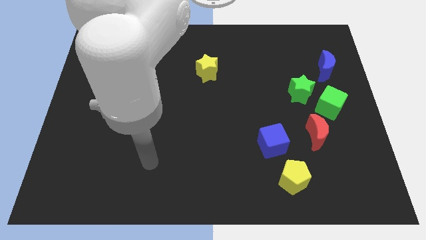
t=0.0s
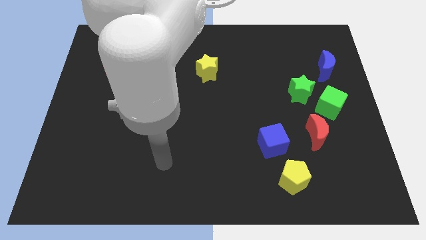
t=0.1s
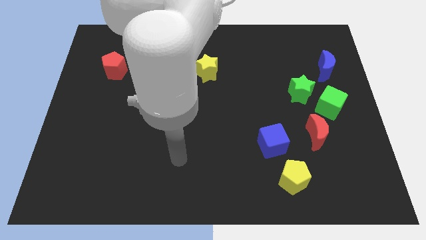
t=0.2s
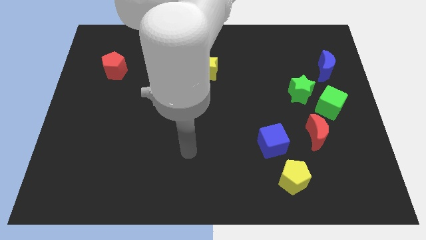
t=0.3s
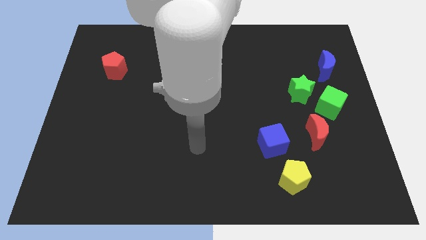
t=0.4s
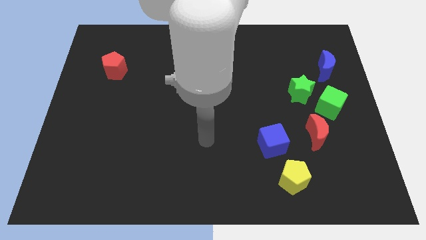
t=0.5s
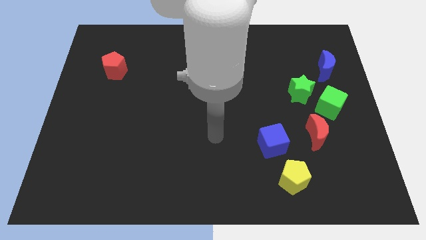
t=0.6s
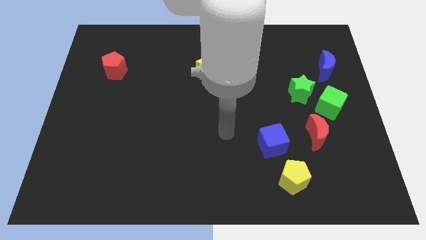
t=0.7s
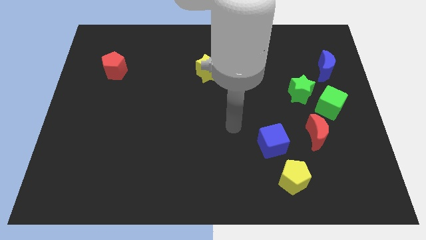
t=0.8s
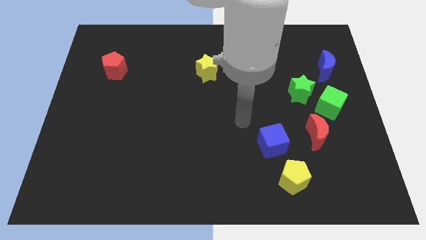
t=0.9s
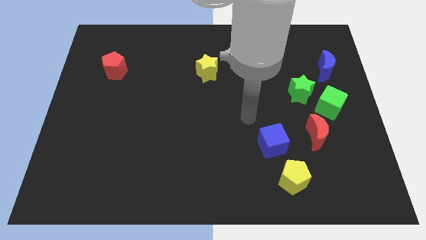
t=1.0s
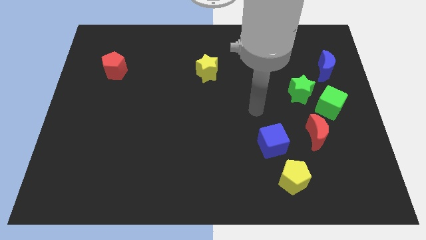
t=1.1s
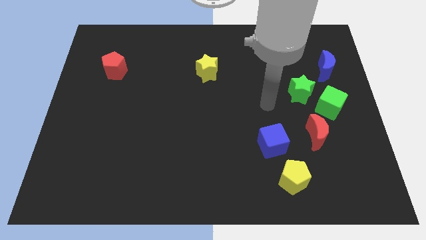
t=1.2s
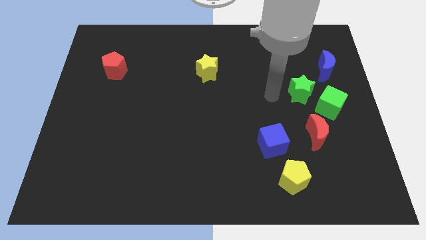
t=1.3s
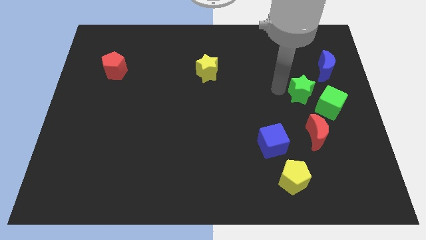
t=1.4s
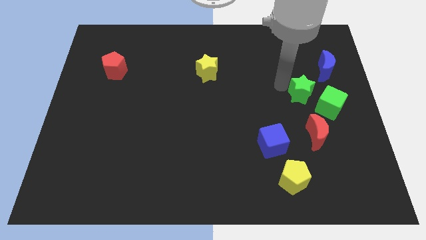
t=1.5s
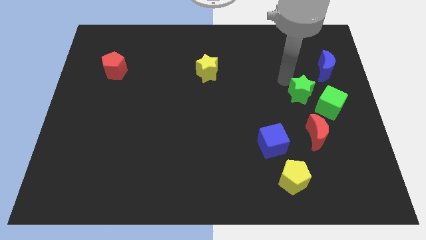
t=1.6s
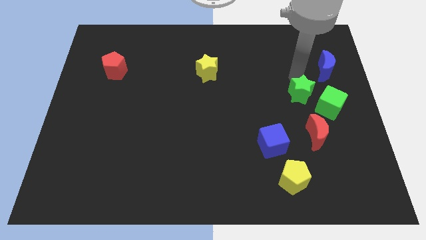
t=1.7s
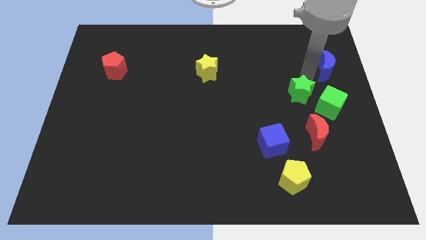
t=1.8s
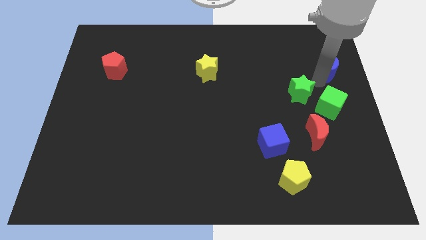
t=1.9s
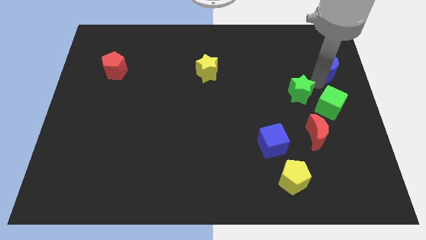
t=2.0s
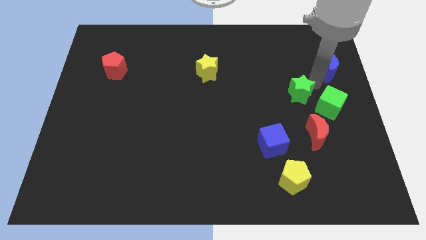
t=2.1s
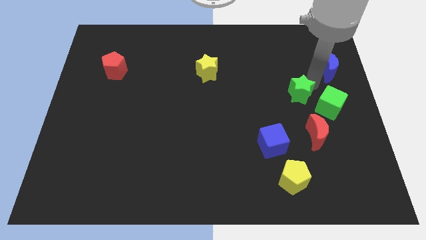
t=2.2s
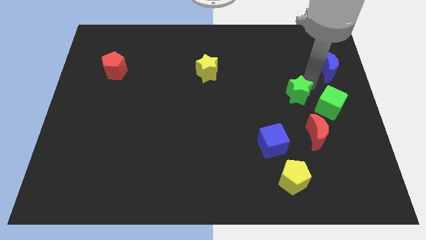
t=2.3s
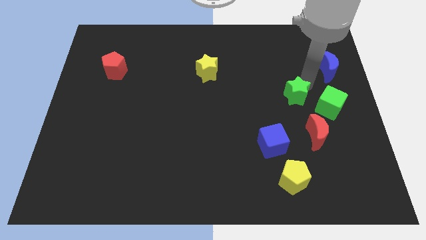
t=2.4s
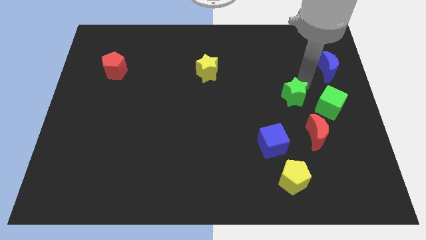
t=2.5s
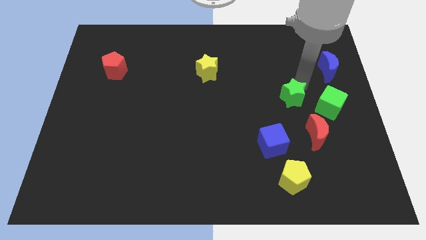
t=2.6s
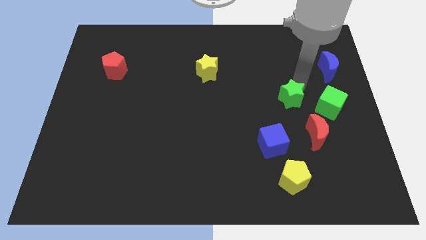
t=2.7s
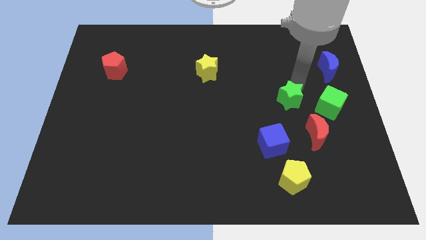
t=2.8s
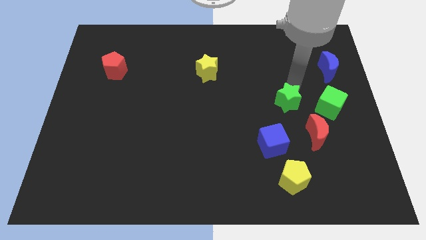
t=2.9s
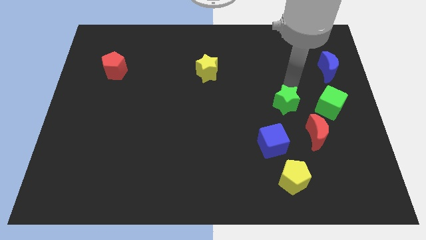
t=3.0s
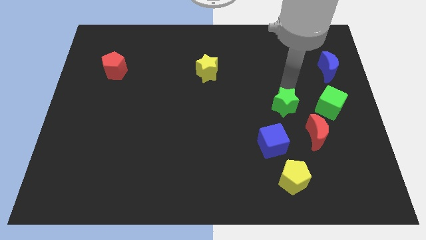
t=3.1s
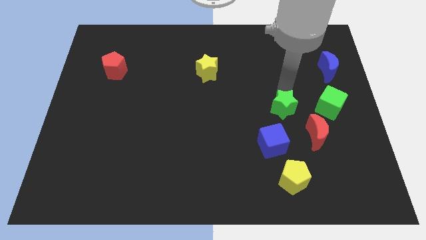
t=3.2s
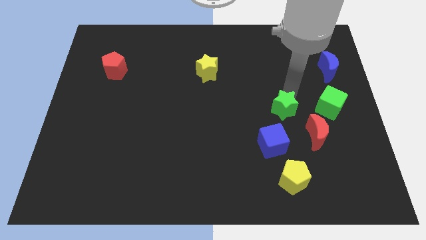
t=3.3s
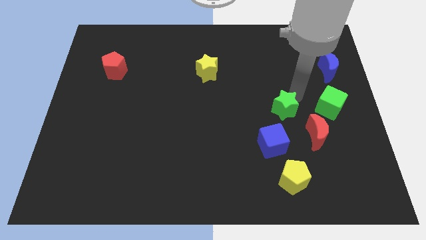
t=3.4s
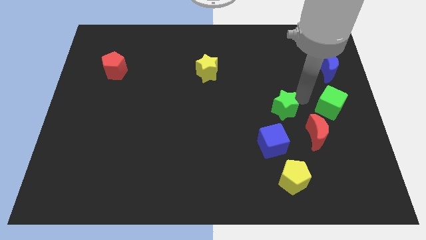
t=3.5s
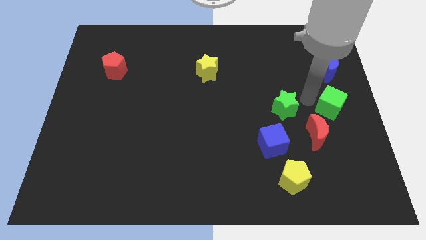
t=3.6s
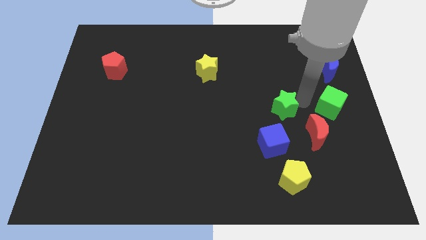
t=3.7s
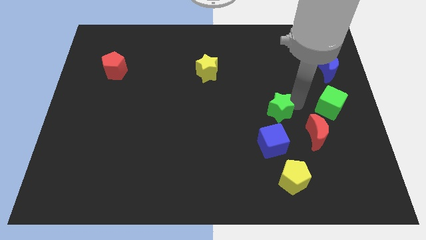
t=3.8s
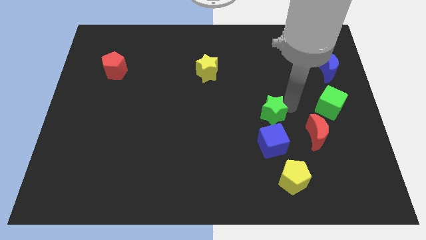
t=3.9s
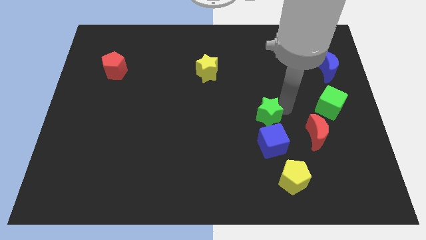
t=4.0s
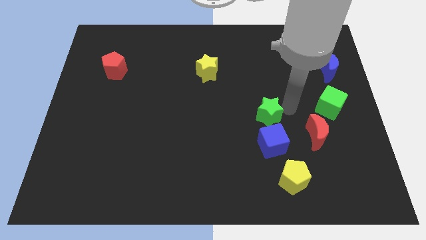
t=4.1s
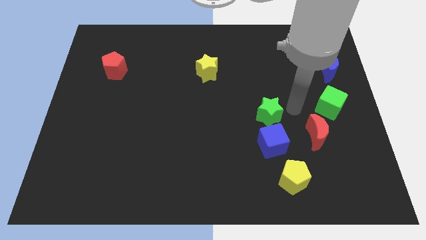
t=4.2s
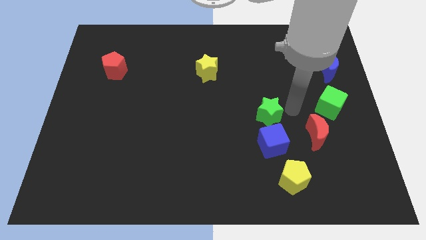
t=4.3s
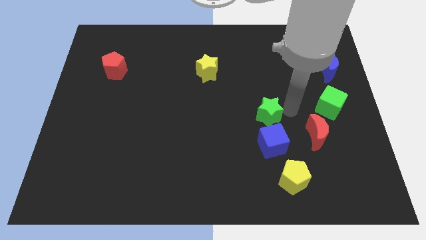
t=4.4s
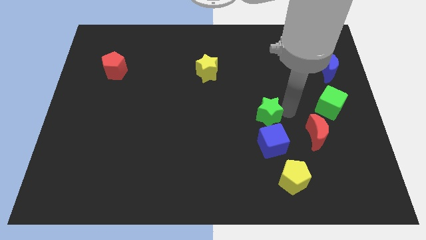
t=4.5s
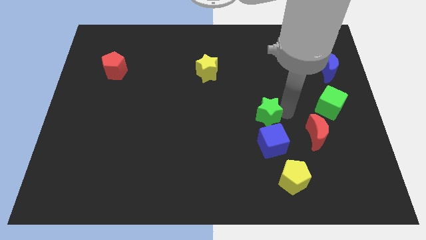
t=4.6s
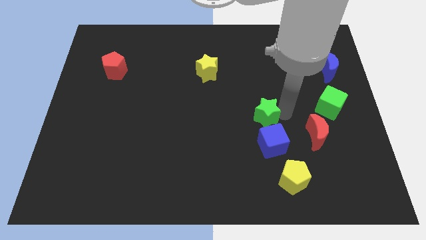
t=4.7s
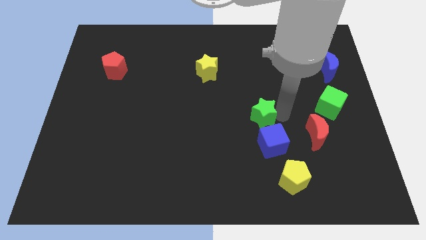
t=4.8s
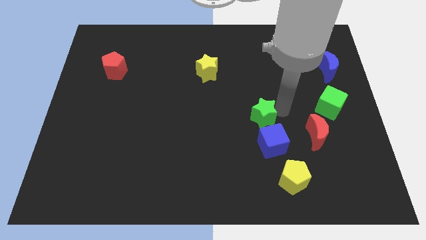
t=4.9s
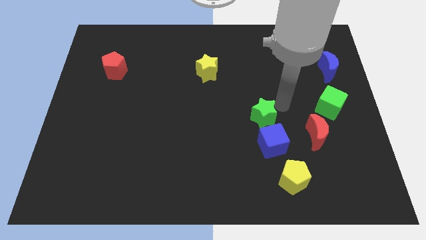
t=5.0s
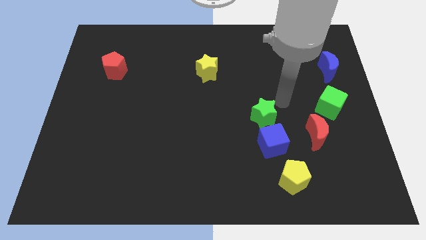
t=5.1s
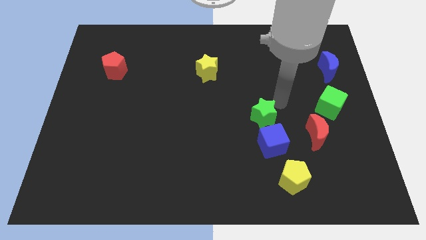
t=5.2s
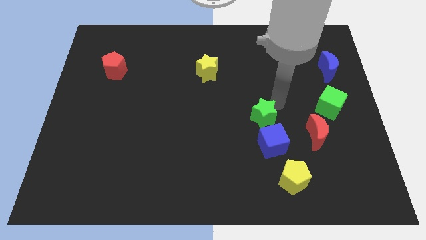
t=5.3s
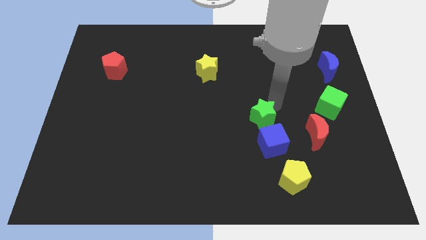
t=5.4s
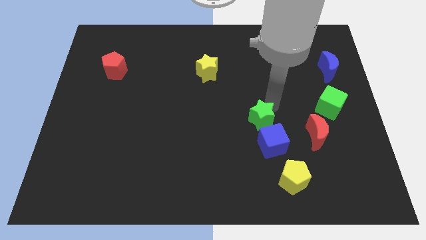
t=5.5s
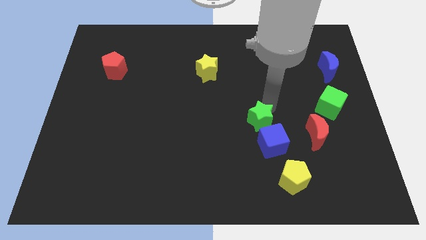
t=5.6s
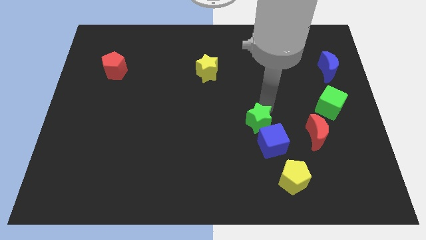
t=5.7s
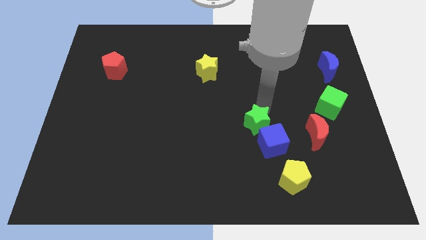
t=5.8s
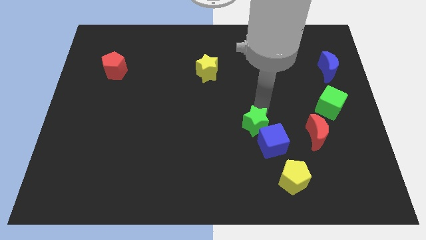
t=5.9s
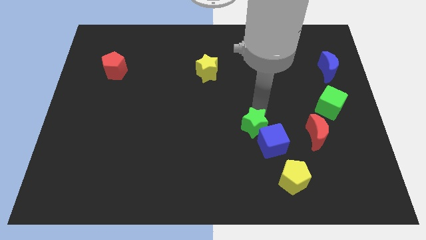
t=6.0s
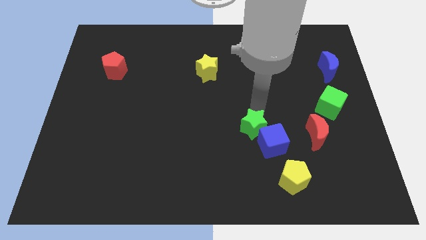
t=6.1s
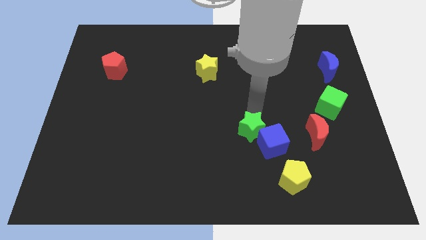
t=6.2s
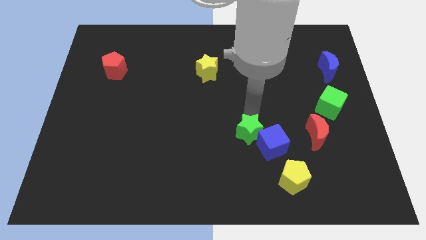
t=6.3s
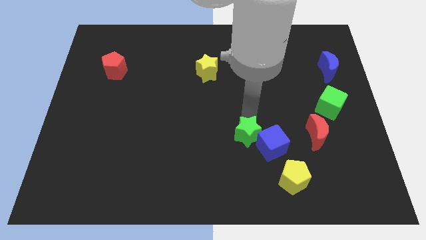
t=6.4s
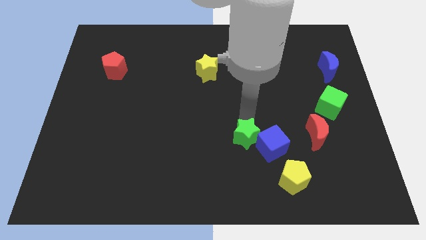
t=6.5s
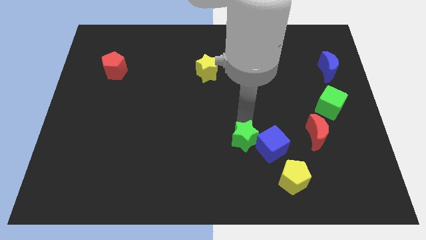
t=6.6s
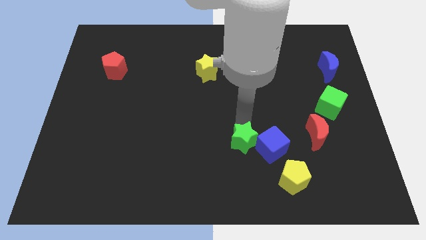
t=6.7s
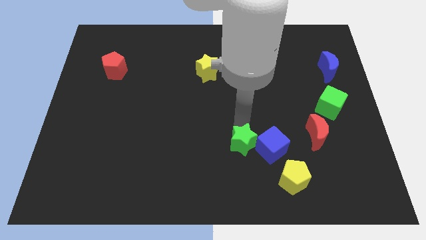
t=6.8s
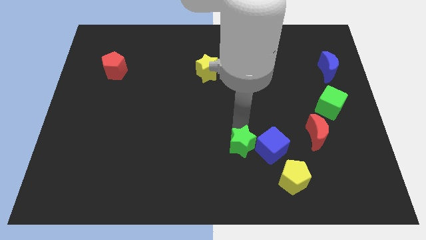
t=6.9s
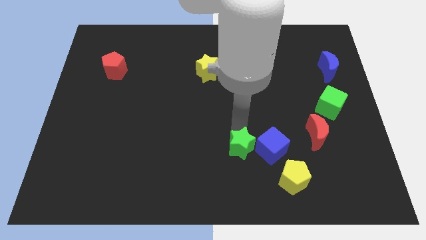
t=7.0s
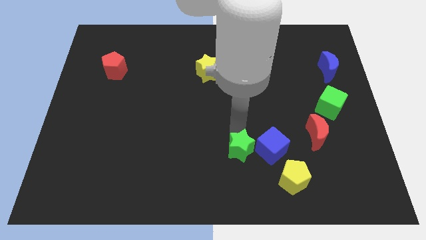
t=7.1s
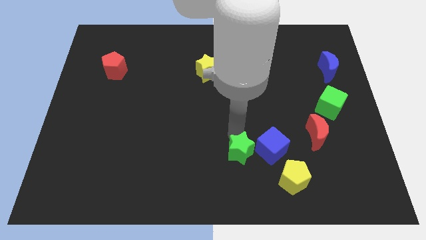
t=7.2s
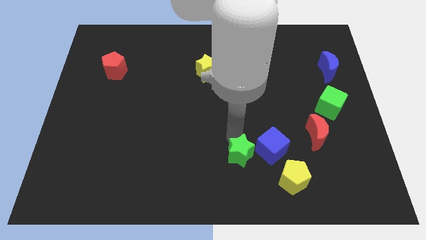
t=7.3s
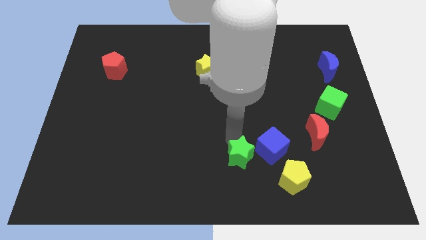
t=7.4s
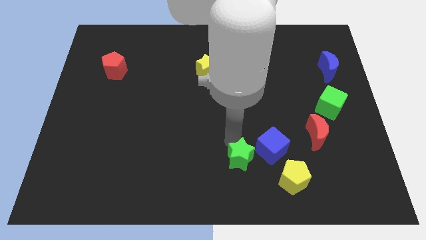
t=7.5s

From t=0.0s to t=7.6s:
slide the green star to the bottom
